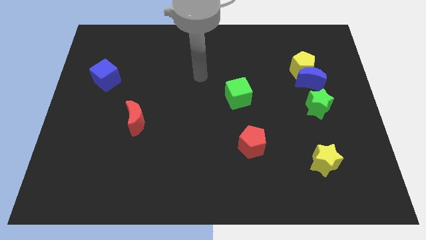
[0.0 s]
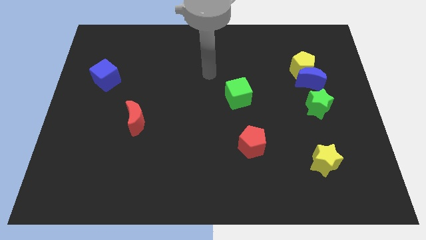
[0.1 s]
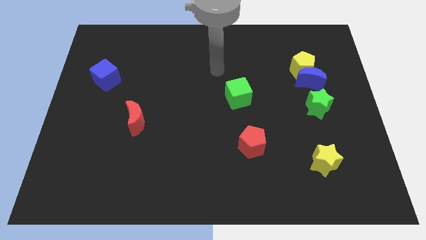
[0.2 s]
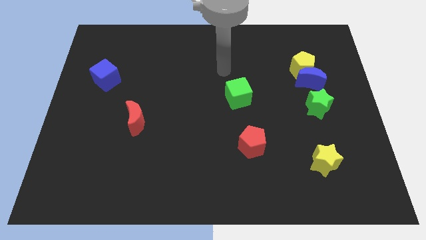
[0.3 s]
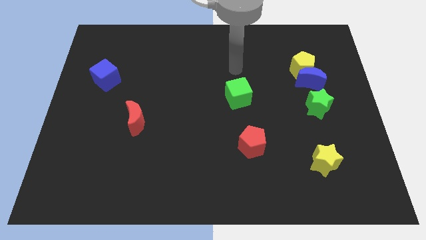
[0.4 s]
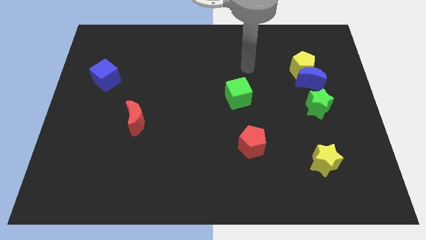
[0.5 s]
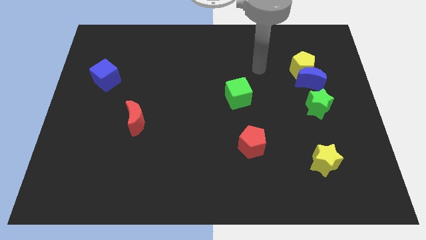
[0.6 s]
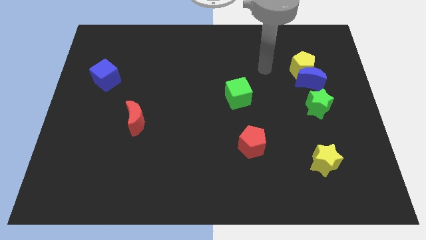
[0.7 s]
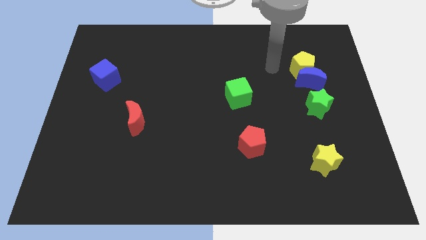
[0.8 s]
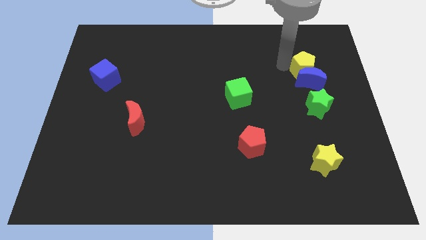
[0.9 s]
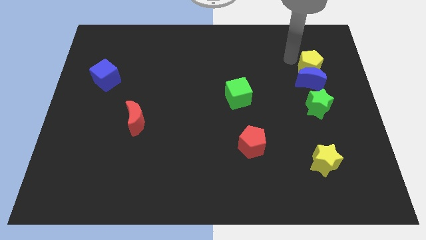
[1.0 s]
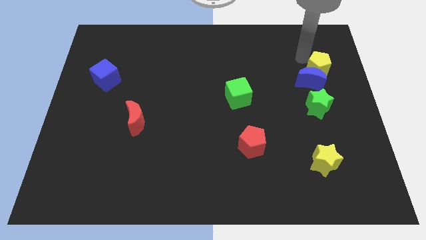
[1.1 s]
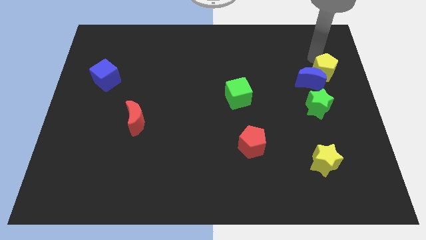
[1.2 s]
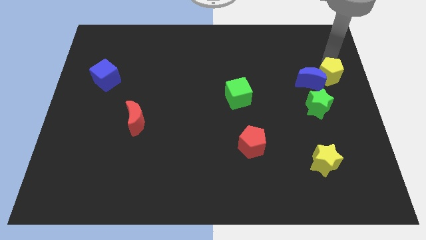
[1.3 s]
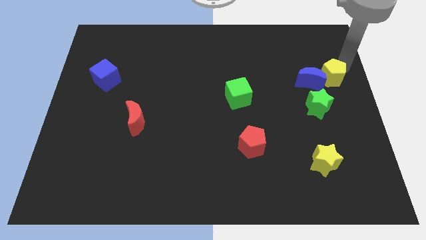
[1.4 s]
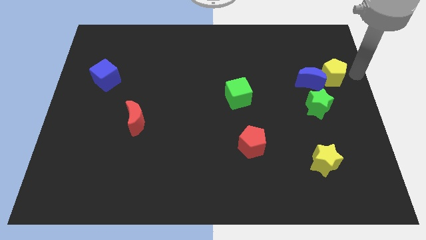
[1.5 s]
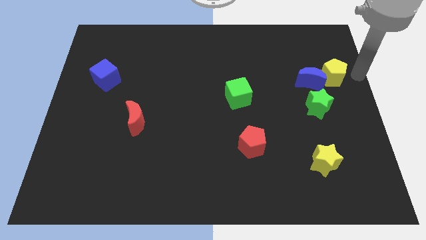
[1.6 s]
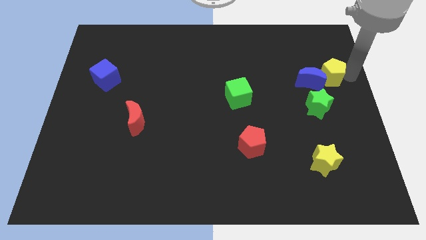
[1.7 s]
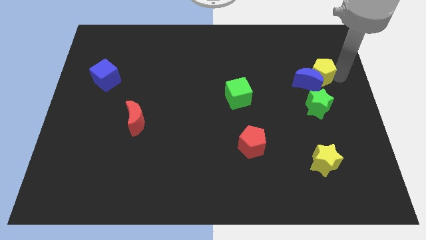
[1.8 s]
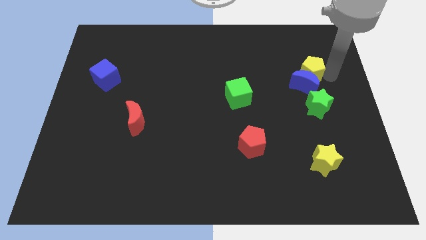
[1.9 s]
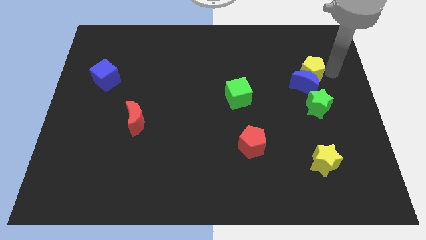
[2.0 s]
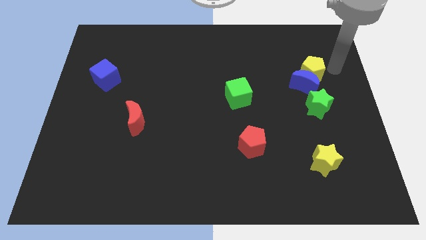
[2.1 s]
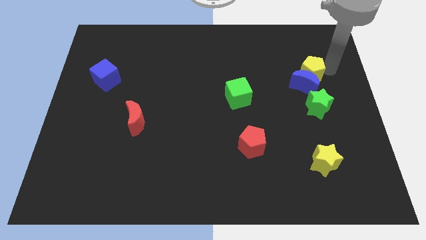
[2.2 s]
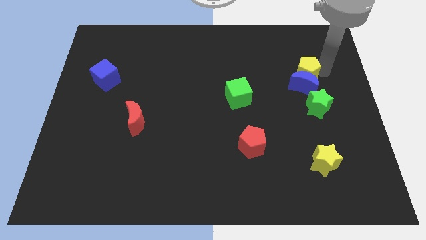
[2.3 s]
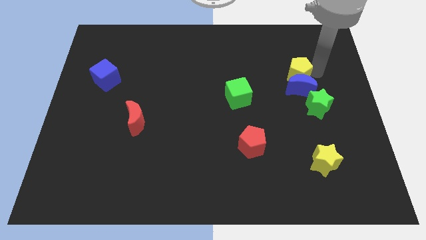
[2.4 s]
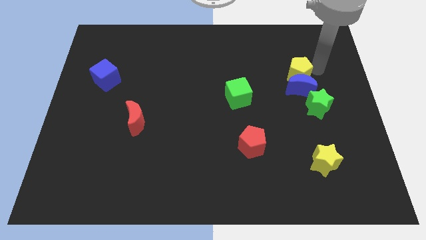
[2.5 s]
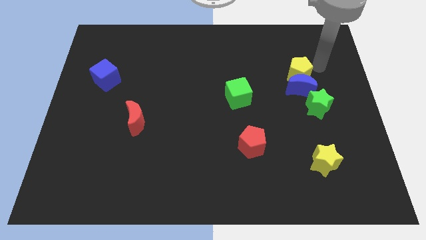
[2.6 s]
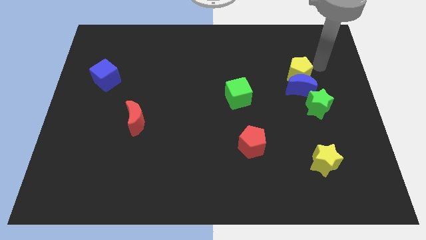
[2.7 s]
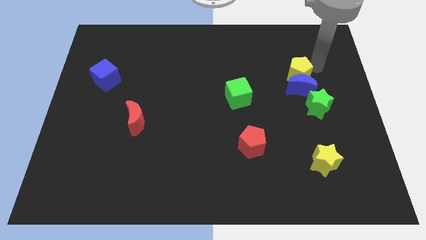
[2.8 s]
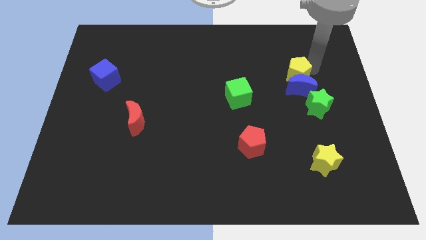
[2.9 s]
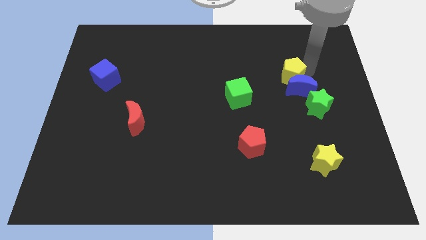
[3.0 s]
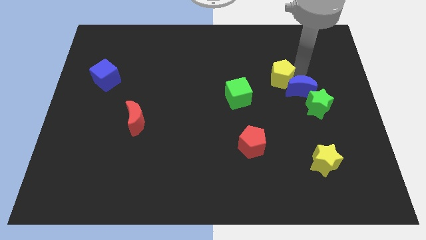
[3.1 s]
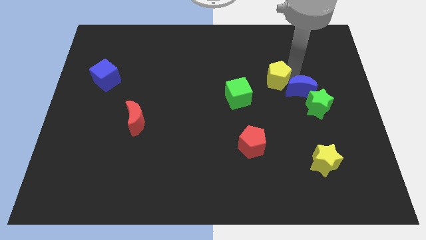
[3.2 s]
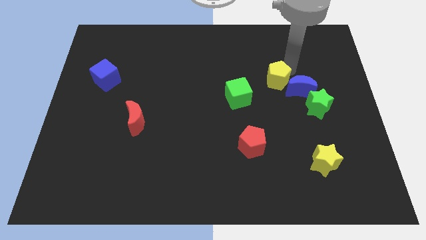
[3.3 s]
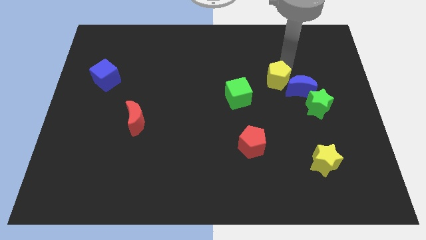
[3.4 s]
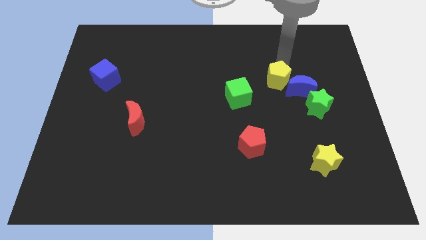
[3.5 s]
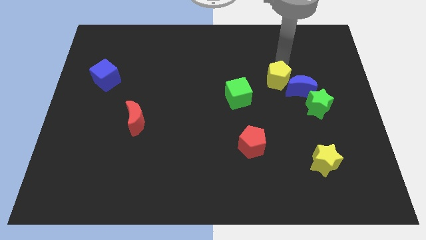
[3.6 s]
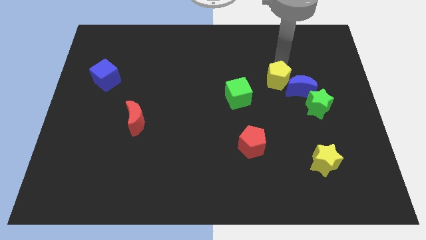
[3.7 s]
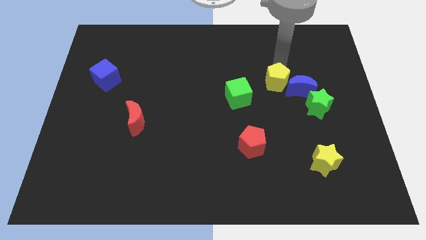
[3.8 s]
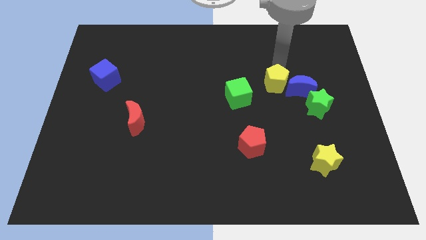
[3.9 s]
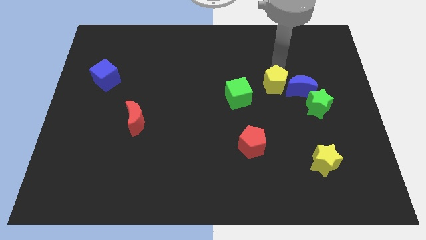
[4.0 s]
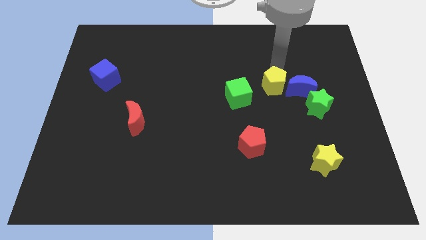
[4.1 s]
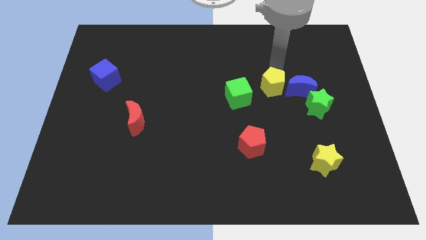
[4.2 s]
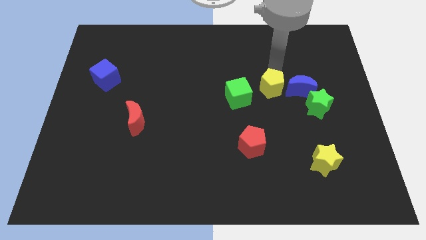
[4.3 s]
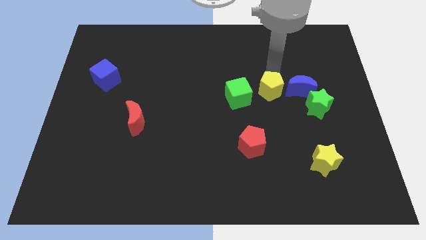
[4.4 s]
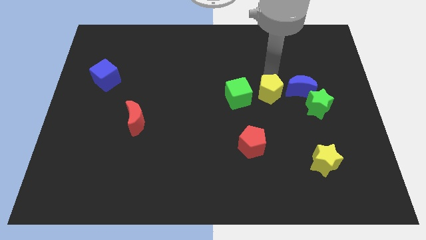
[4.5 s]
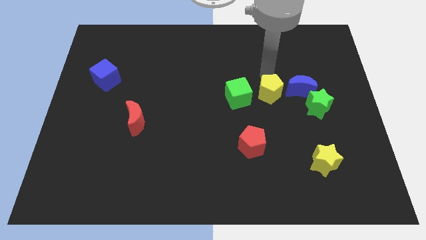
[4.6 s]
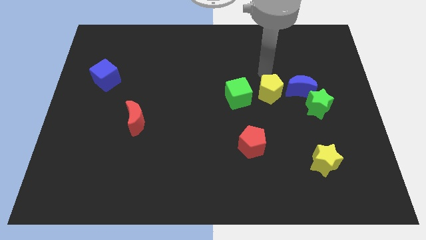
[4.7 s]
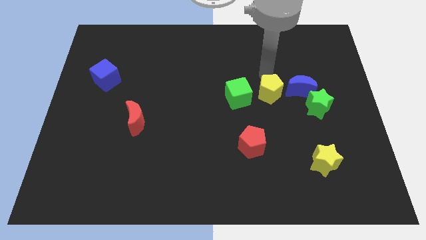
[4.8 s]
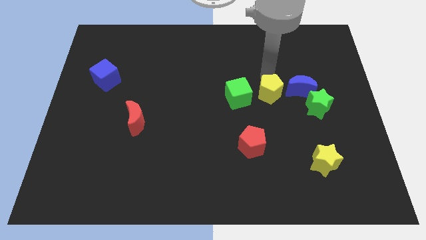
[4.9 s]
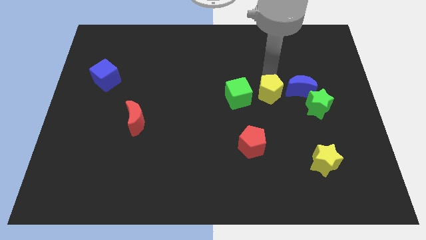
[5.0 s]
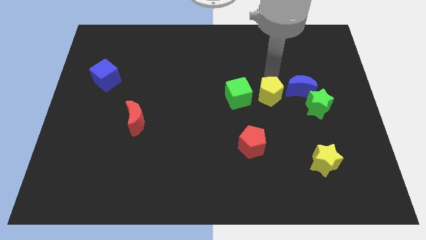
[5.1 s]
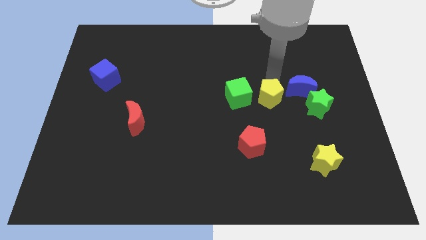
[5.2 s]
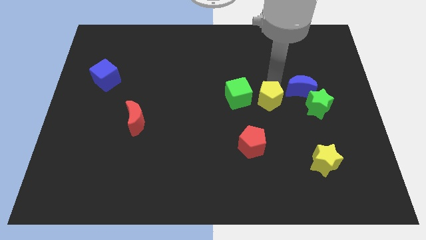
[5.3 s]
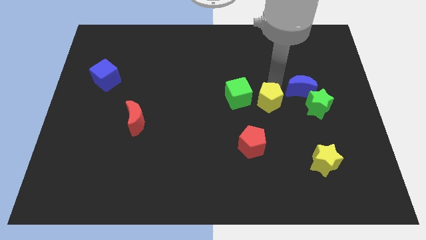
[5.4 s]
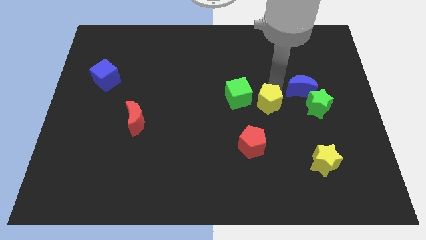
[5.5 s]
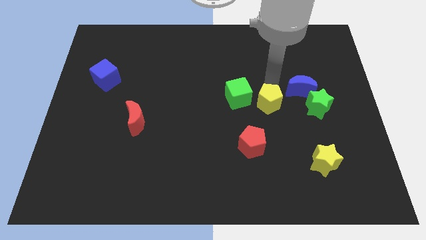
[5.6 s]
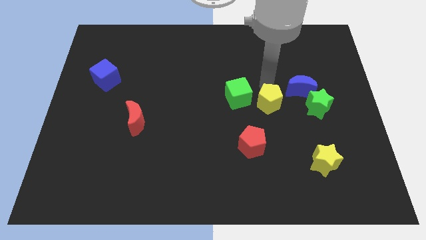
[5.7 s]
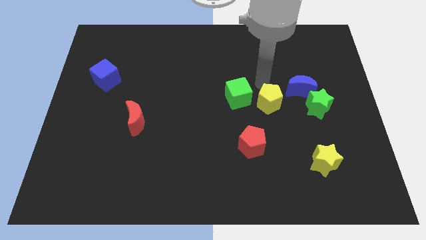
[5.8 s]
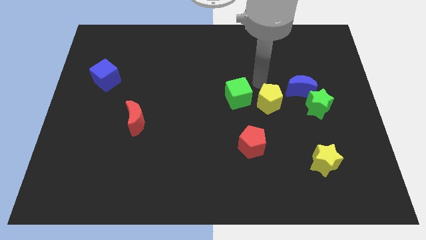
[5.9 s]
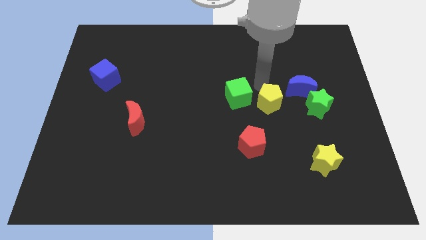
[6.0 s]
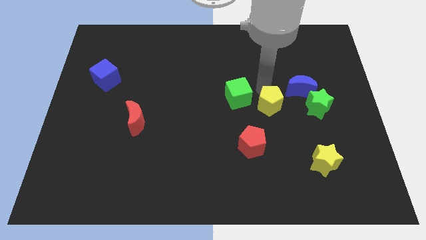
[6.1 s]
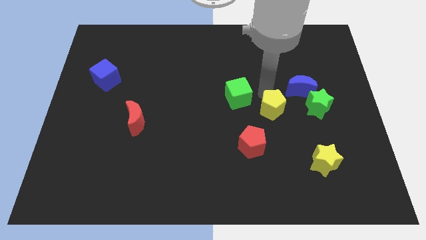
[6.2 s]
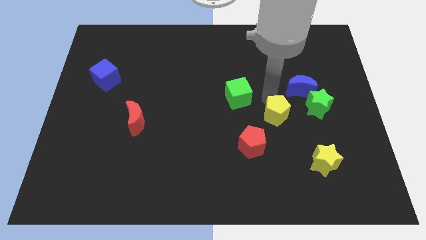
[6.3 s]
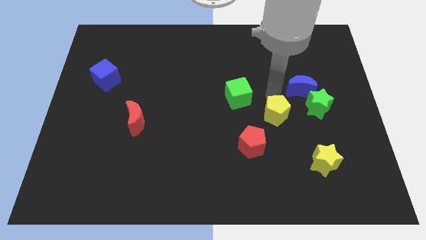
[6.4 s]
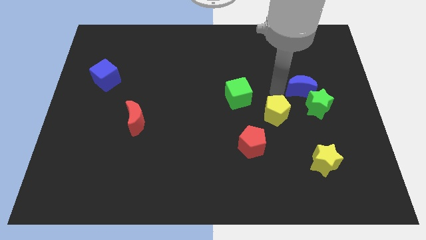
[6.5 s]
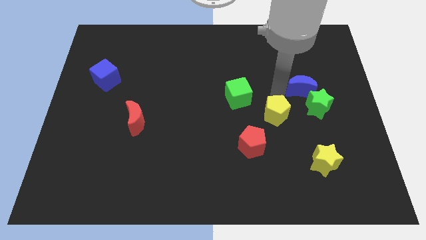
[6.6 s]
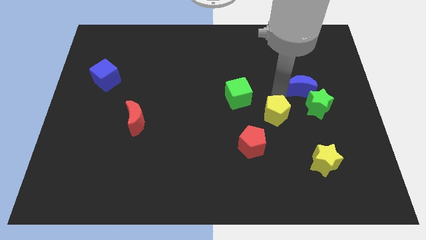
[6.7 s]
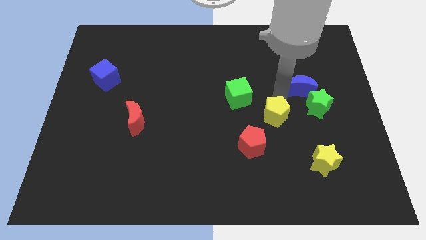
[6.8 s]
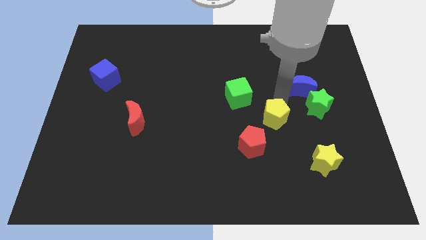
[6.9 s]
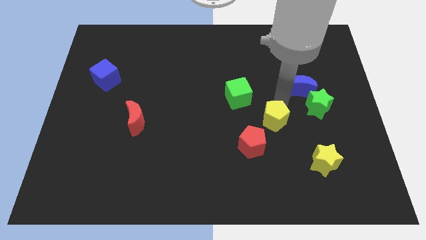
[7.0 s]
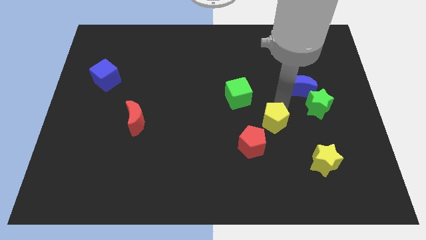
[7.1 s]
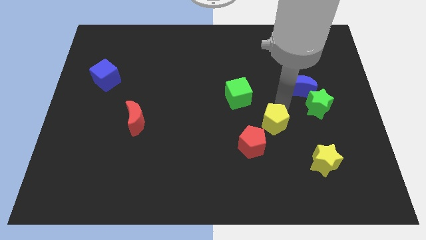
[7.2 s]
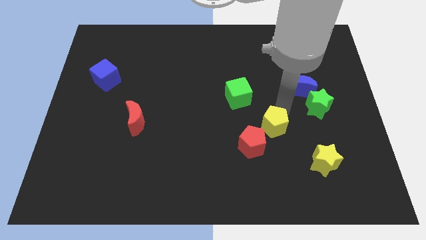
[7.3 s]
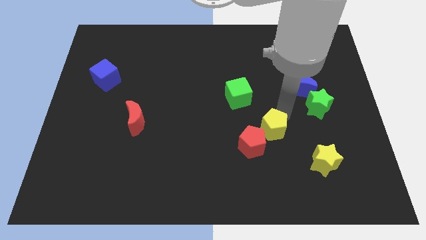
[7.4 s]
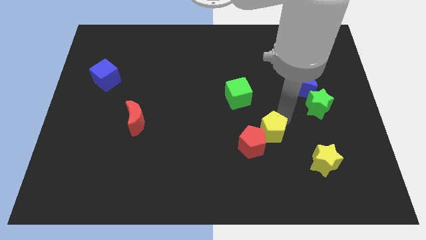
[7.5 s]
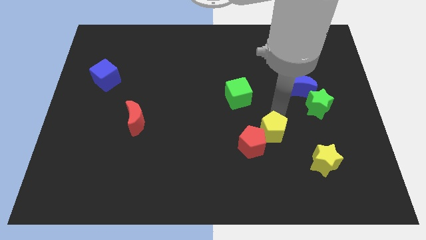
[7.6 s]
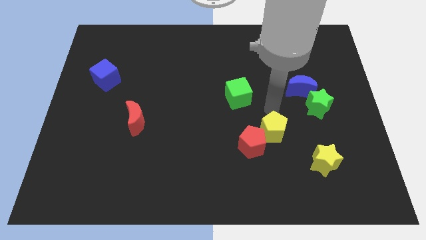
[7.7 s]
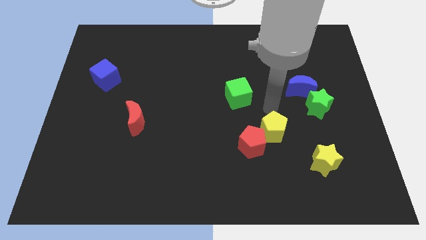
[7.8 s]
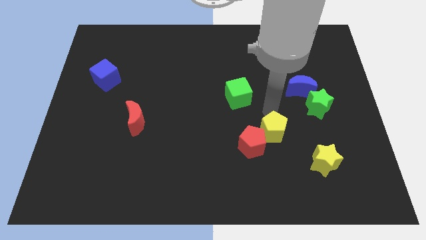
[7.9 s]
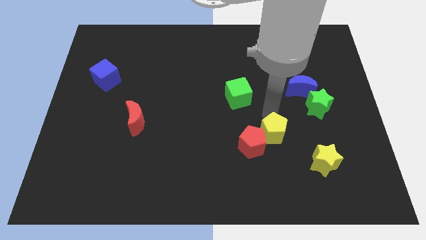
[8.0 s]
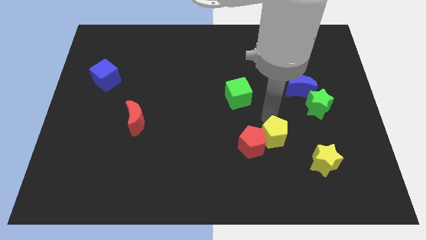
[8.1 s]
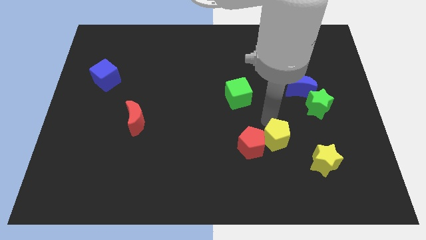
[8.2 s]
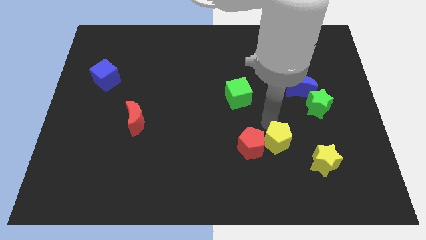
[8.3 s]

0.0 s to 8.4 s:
push the yellow pentagon to the bottom right of the red pentagon
